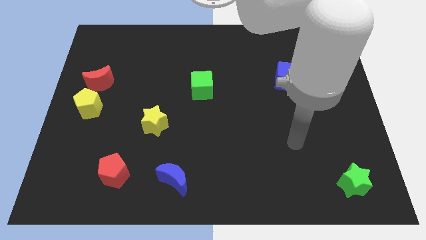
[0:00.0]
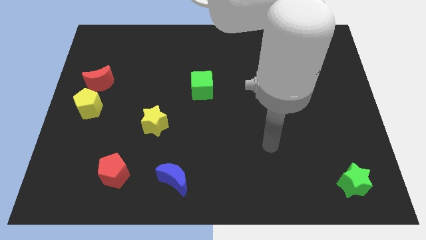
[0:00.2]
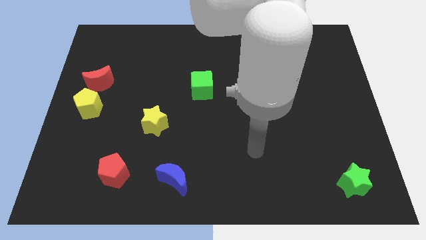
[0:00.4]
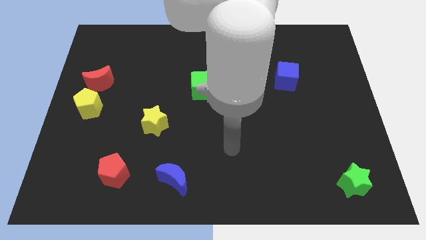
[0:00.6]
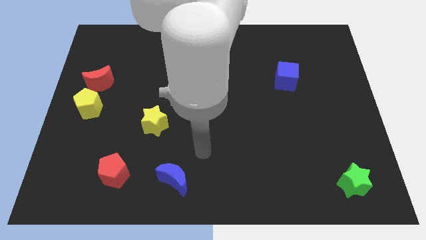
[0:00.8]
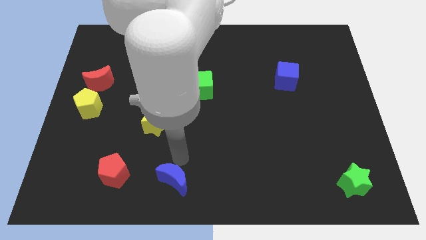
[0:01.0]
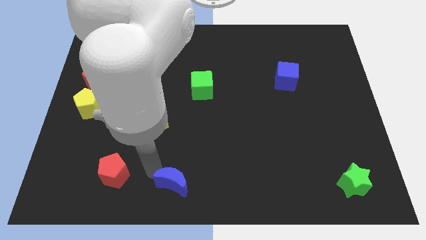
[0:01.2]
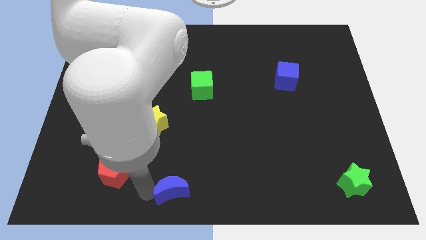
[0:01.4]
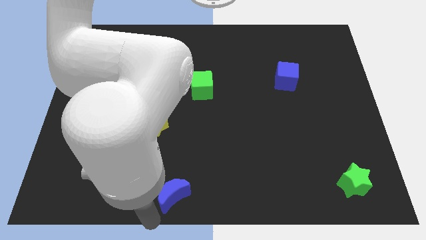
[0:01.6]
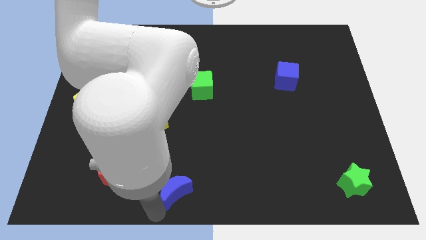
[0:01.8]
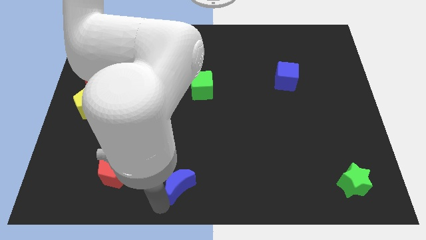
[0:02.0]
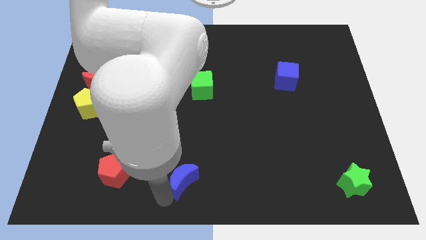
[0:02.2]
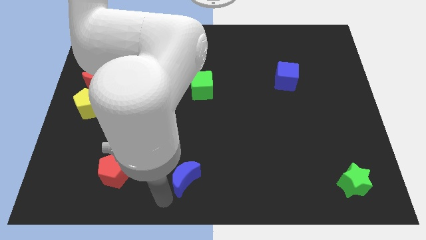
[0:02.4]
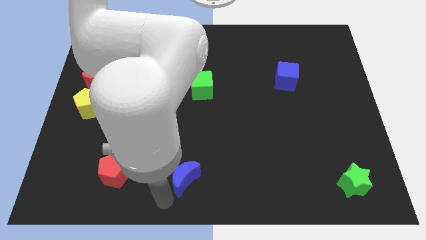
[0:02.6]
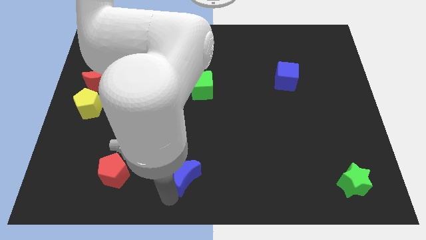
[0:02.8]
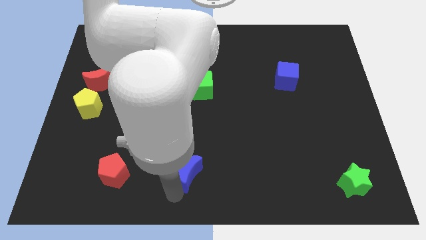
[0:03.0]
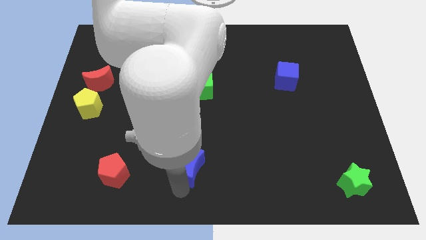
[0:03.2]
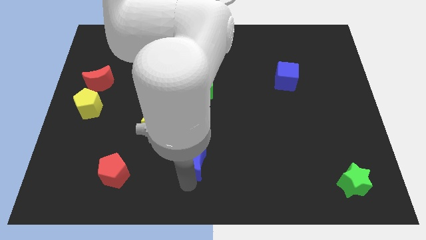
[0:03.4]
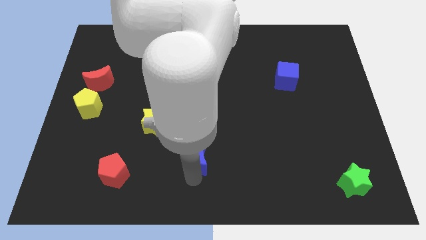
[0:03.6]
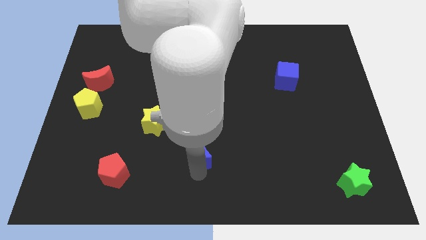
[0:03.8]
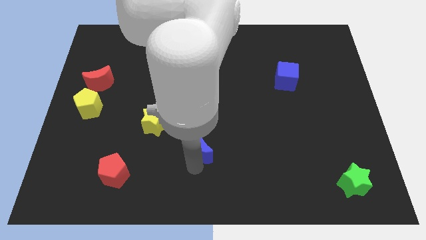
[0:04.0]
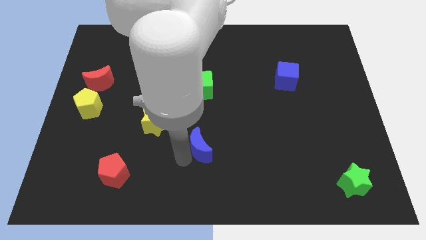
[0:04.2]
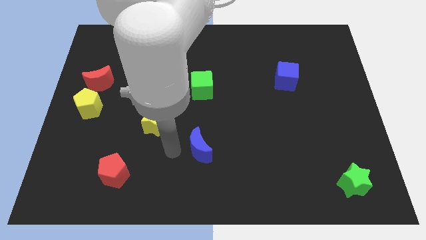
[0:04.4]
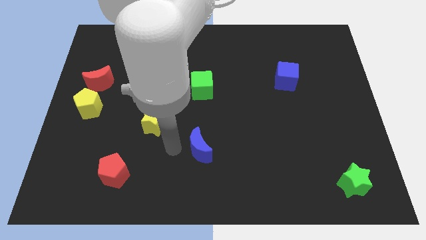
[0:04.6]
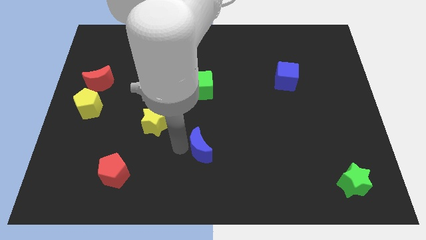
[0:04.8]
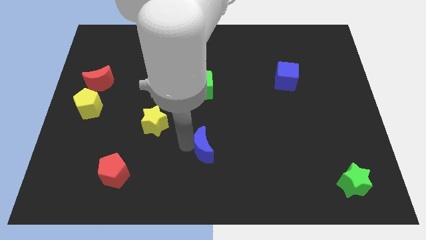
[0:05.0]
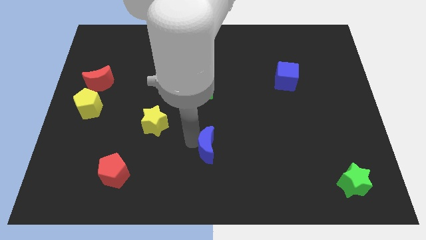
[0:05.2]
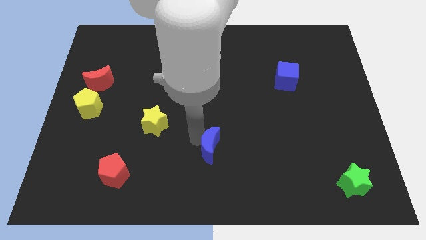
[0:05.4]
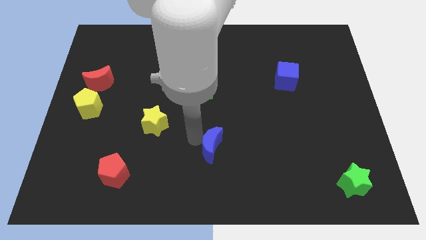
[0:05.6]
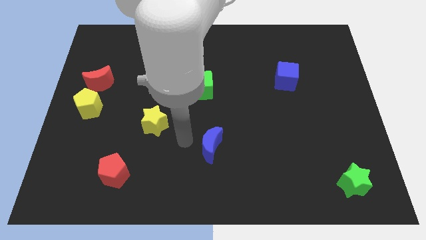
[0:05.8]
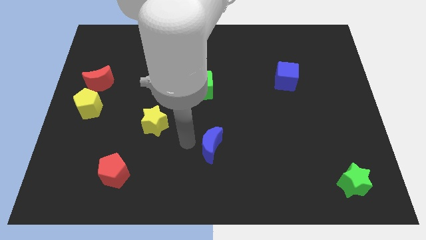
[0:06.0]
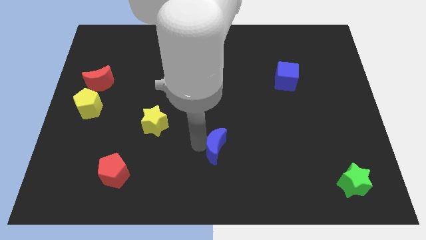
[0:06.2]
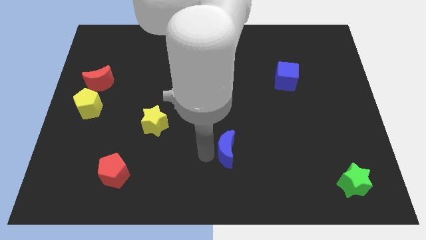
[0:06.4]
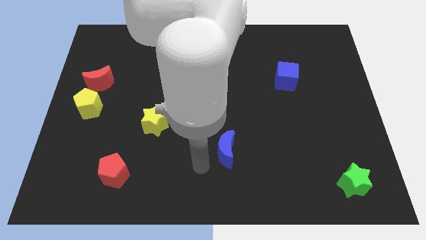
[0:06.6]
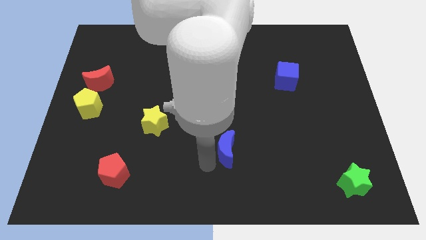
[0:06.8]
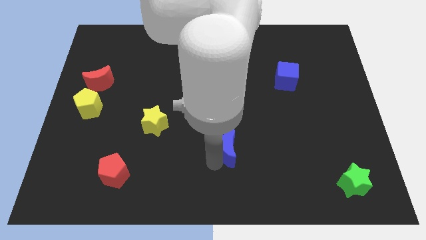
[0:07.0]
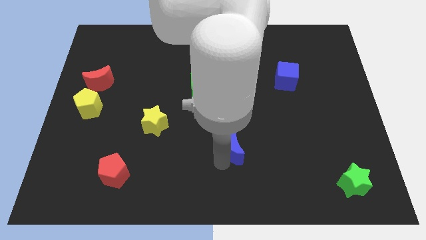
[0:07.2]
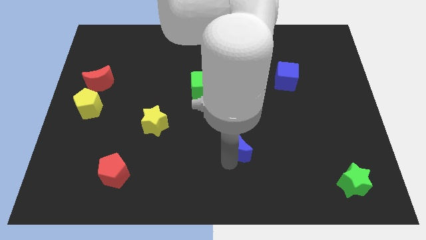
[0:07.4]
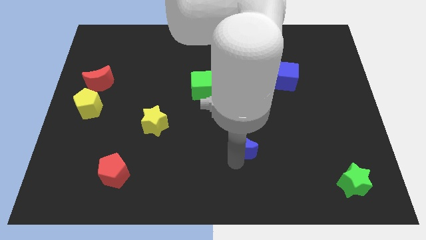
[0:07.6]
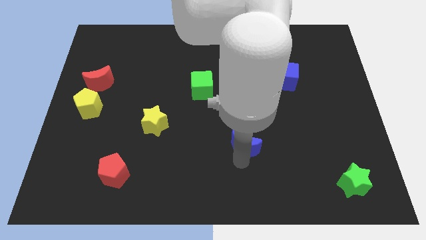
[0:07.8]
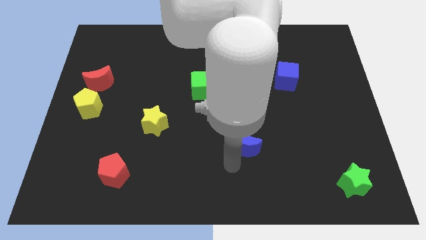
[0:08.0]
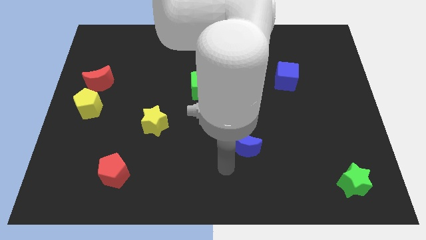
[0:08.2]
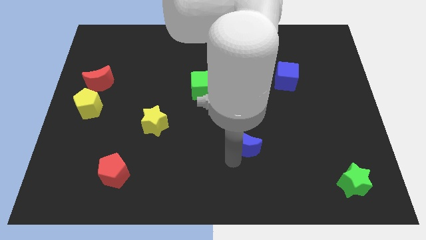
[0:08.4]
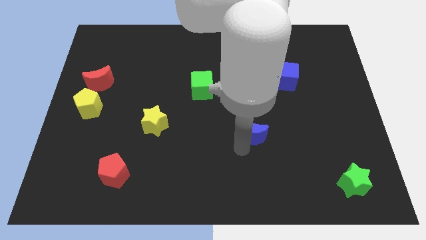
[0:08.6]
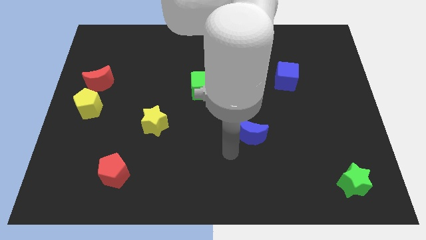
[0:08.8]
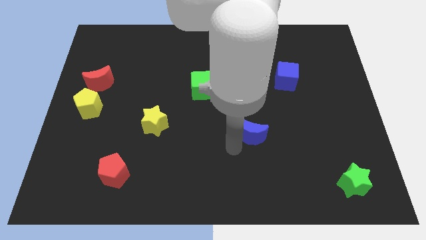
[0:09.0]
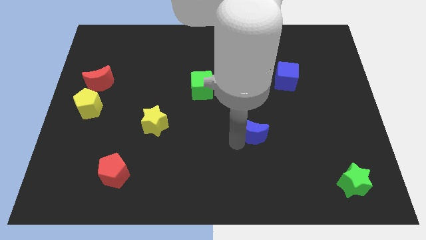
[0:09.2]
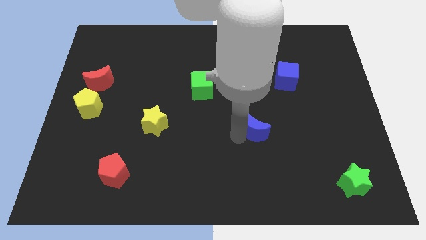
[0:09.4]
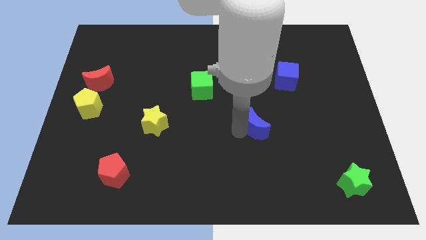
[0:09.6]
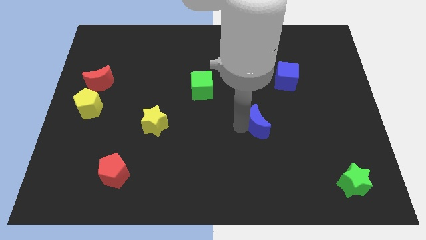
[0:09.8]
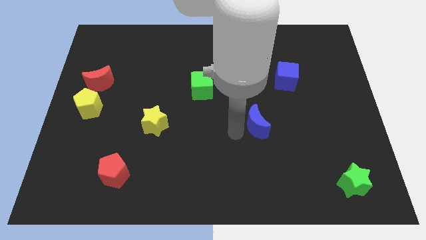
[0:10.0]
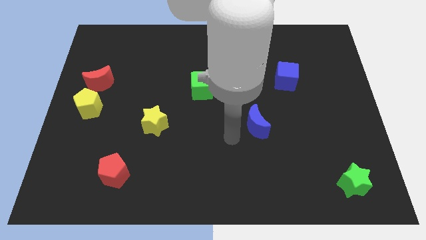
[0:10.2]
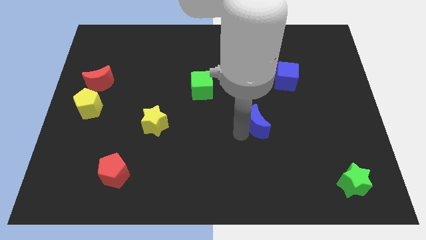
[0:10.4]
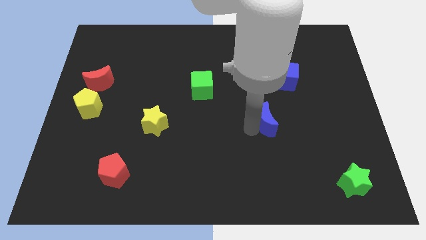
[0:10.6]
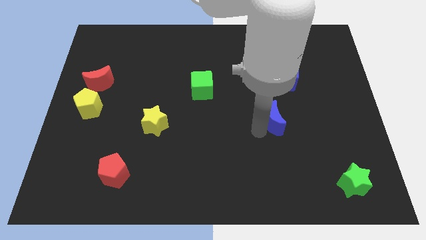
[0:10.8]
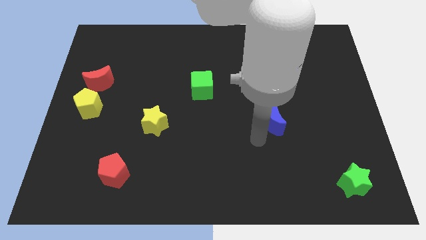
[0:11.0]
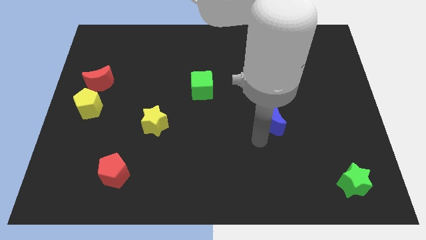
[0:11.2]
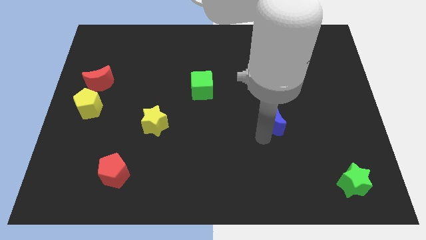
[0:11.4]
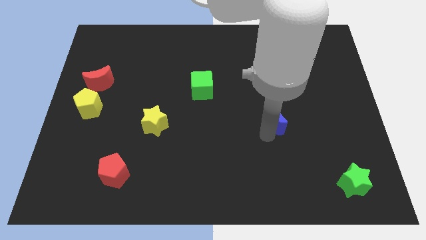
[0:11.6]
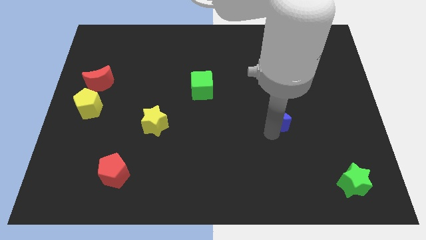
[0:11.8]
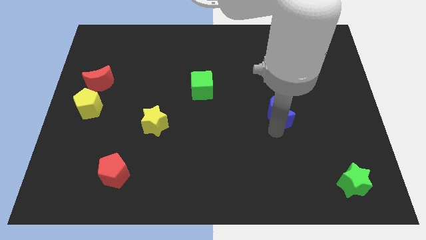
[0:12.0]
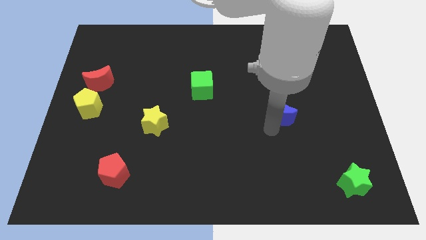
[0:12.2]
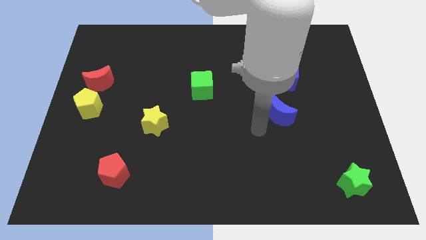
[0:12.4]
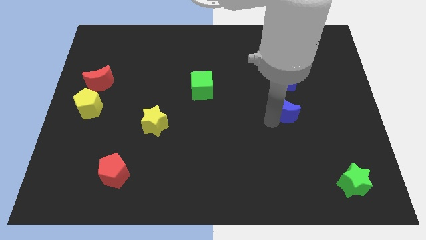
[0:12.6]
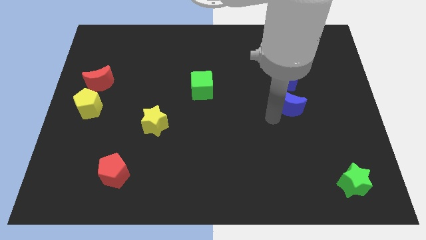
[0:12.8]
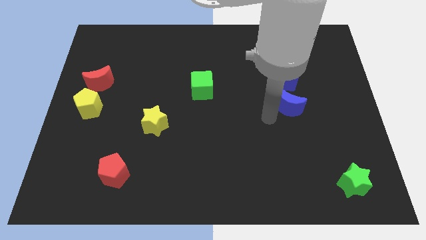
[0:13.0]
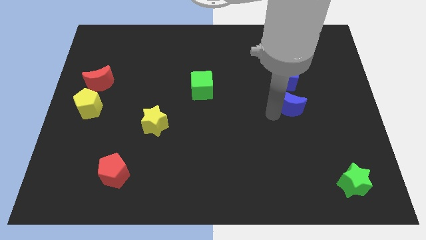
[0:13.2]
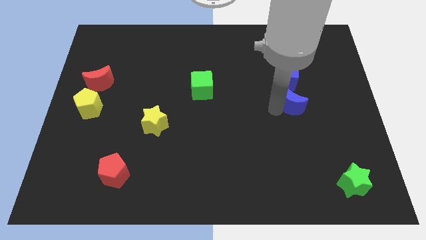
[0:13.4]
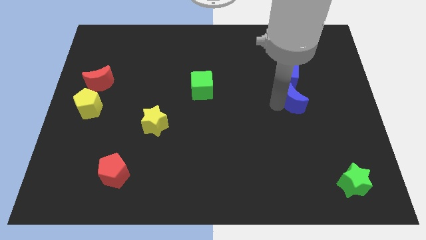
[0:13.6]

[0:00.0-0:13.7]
put the blue moon diagonally down and to the right of the blue cube
